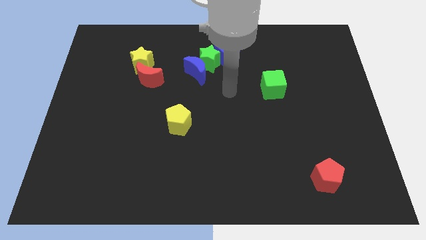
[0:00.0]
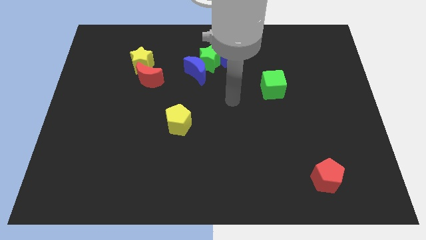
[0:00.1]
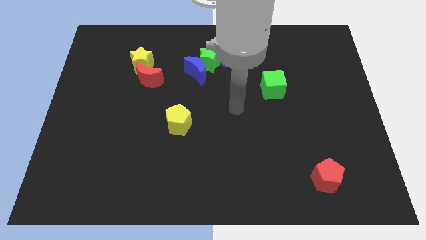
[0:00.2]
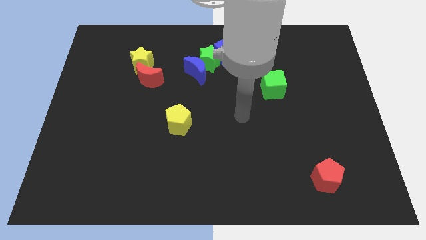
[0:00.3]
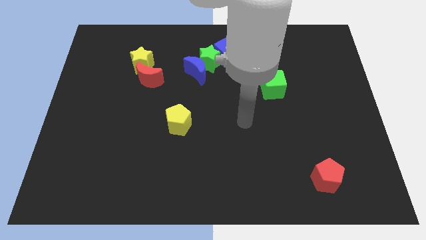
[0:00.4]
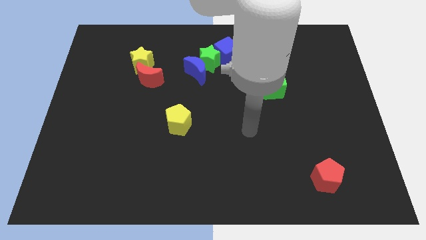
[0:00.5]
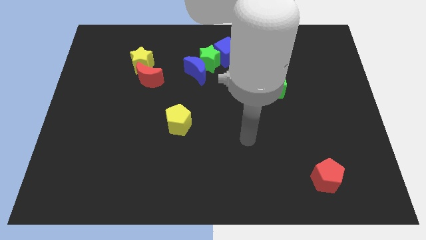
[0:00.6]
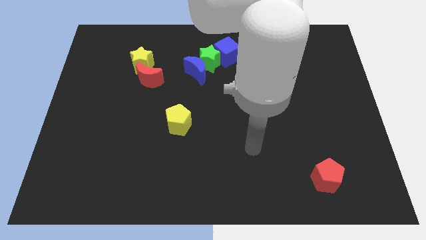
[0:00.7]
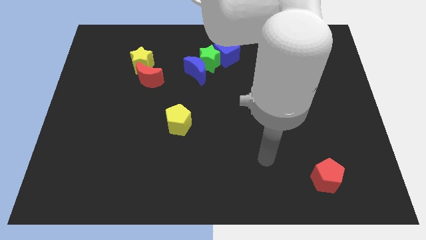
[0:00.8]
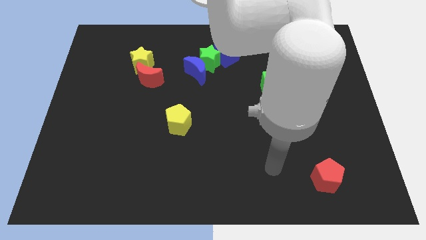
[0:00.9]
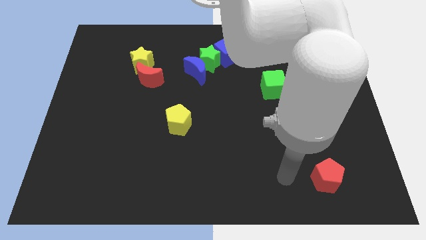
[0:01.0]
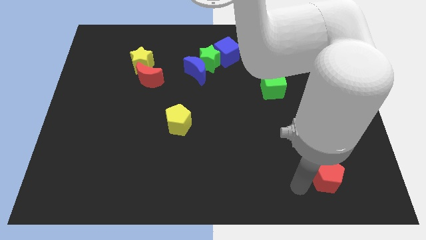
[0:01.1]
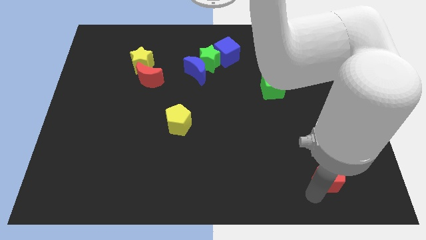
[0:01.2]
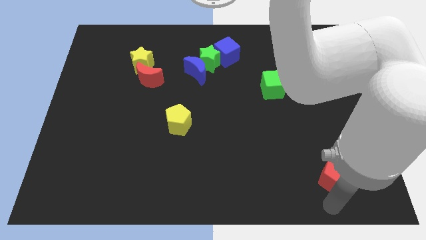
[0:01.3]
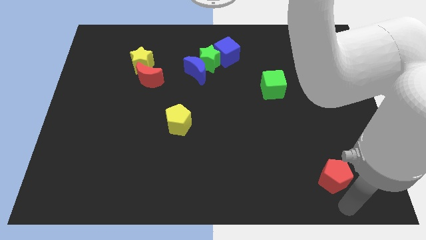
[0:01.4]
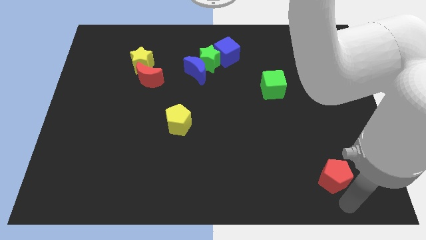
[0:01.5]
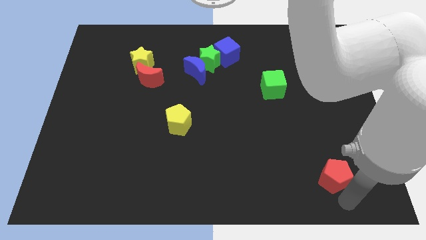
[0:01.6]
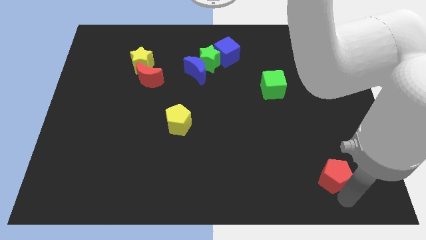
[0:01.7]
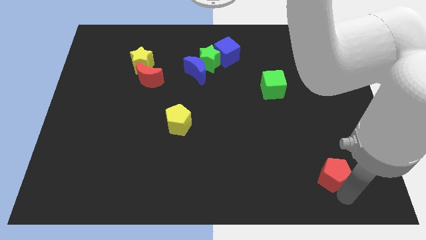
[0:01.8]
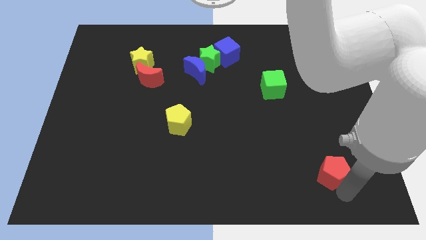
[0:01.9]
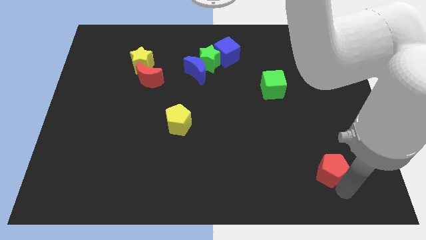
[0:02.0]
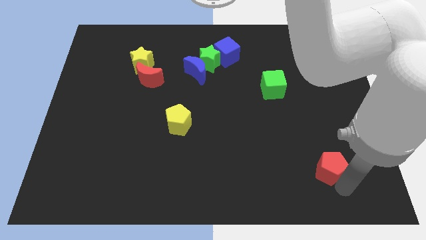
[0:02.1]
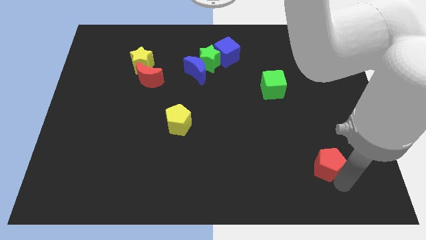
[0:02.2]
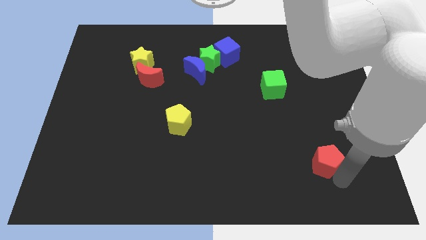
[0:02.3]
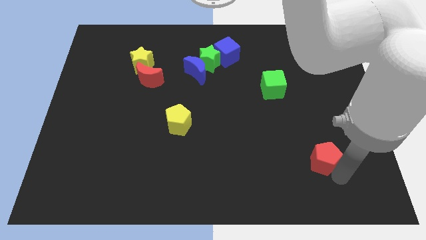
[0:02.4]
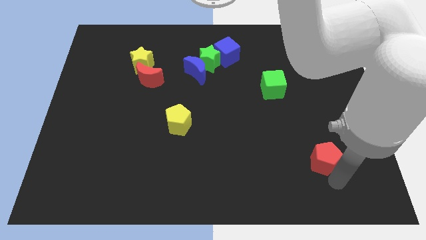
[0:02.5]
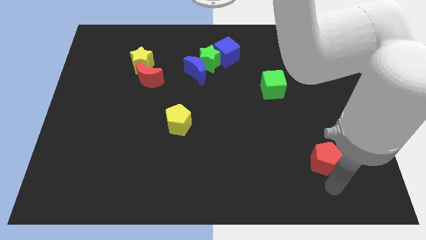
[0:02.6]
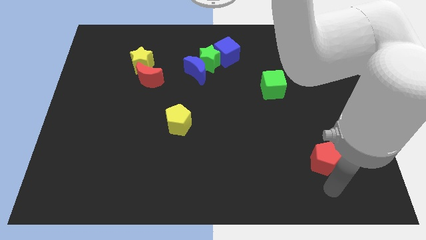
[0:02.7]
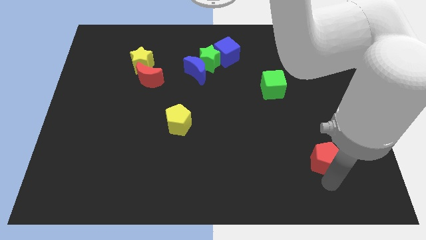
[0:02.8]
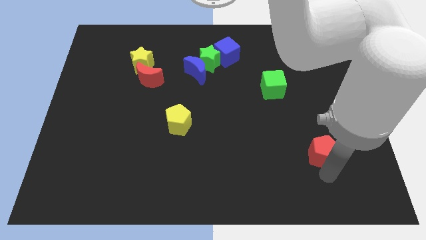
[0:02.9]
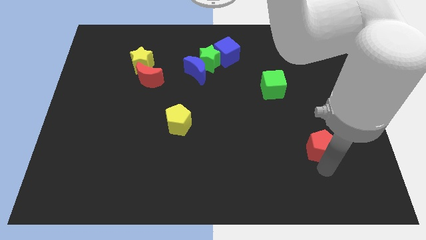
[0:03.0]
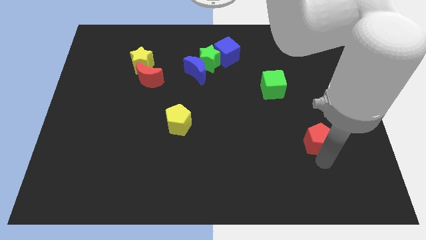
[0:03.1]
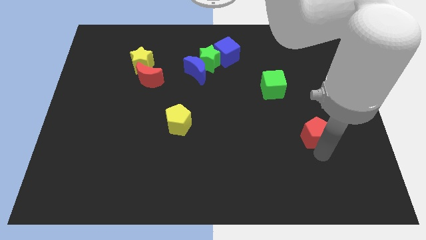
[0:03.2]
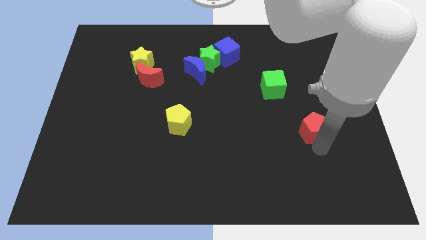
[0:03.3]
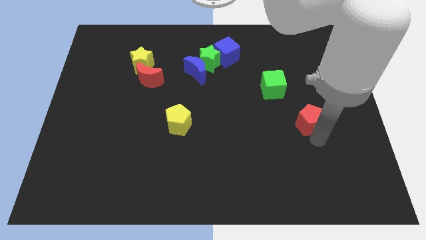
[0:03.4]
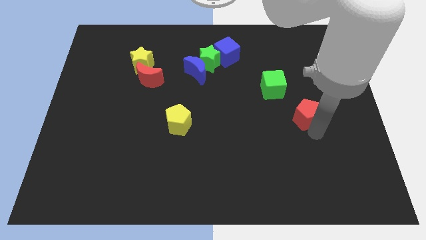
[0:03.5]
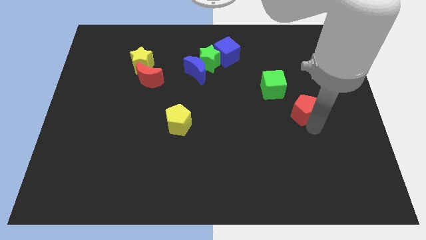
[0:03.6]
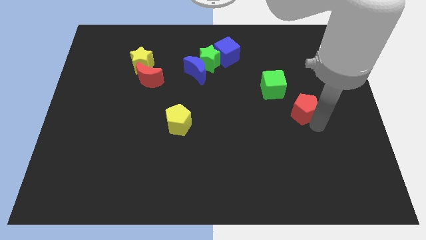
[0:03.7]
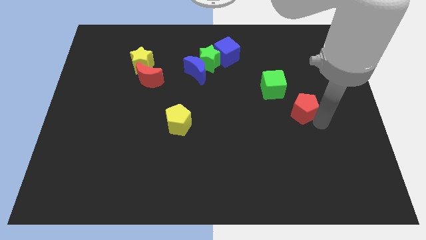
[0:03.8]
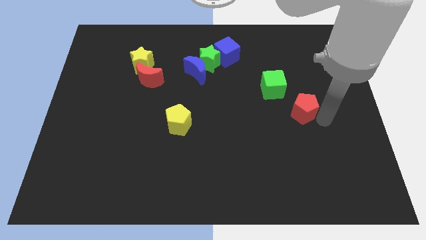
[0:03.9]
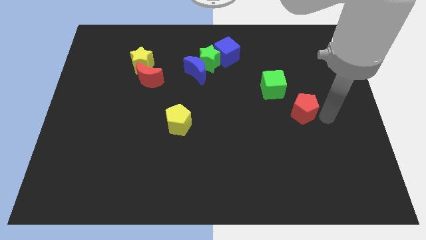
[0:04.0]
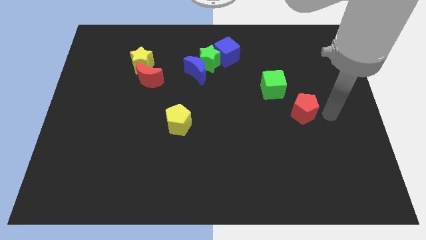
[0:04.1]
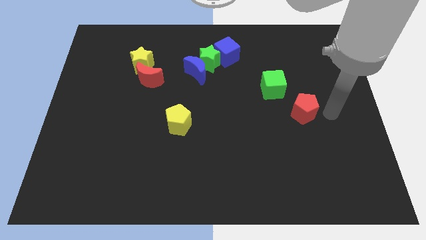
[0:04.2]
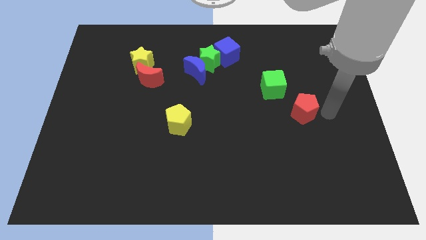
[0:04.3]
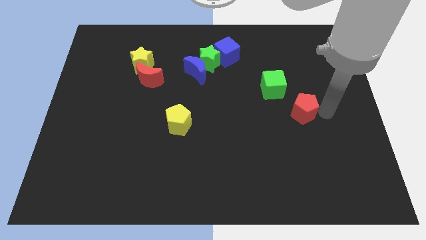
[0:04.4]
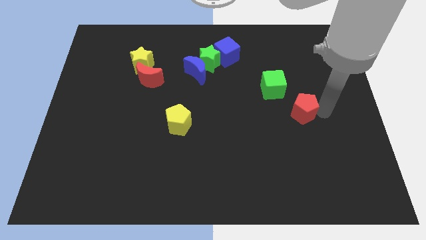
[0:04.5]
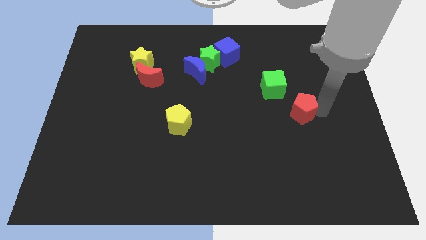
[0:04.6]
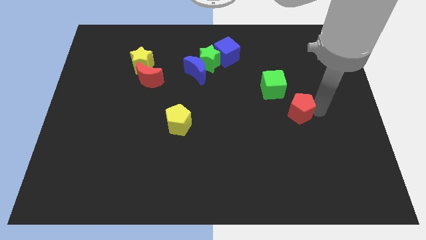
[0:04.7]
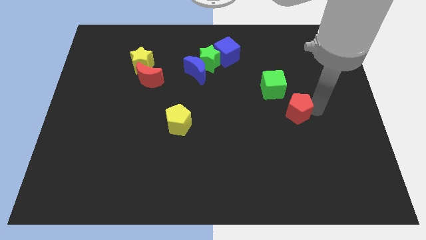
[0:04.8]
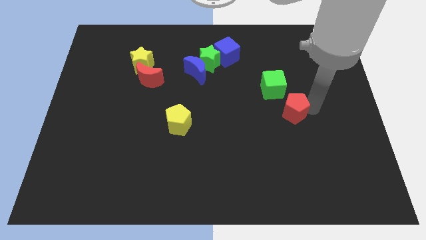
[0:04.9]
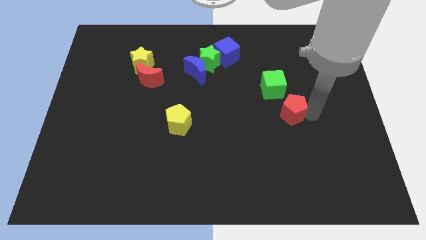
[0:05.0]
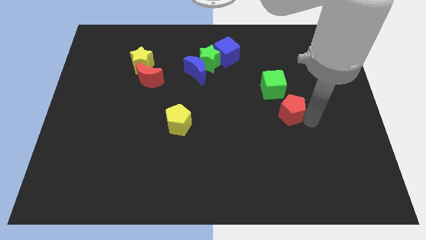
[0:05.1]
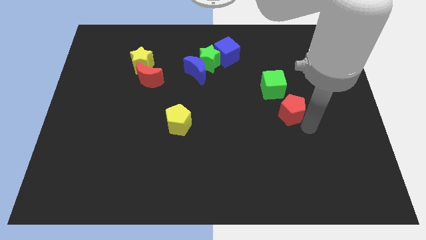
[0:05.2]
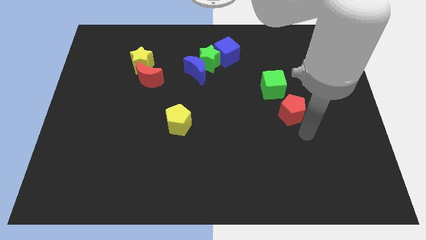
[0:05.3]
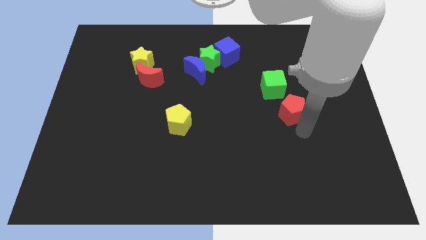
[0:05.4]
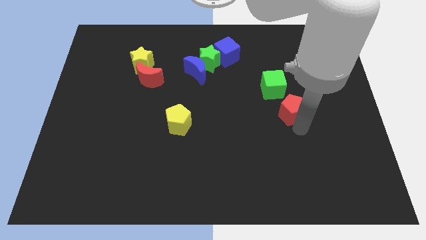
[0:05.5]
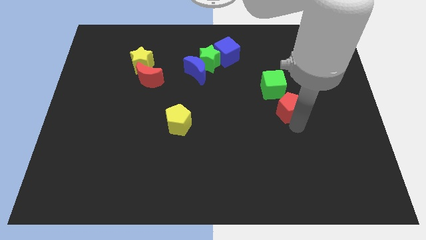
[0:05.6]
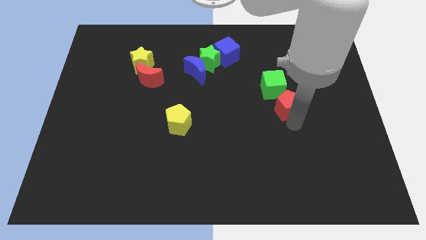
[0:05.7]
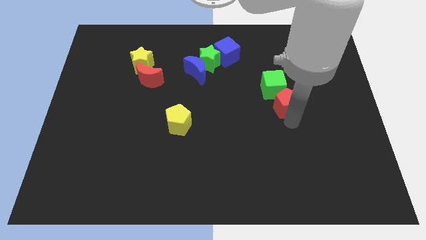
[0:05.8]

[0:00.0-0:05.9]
slide the red pentagon to the green cube

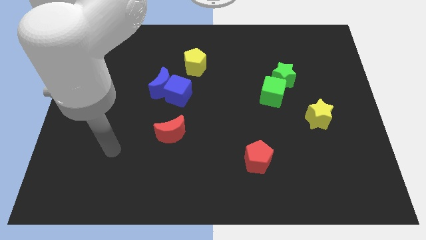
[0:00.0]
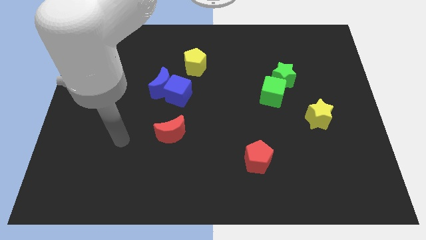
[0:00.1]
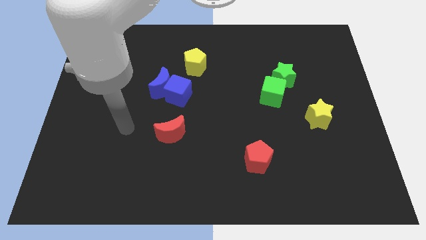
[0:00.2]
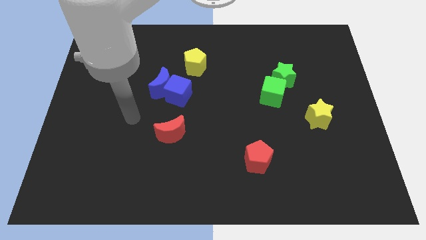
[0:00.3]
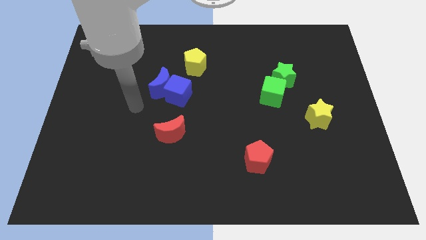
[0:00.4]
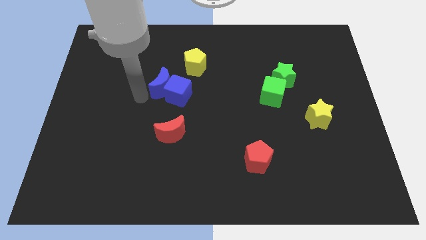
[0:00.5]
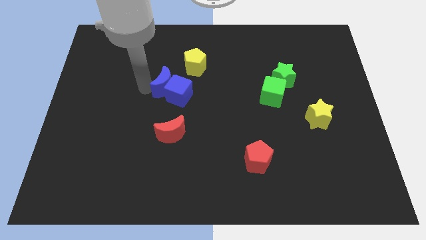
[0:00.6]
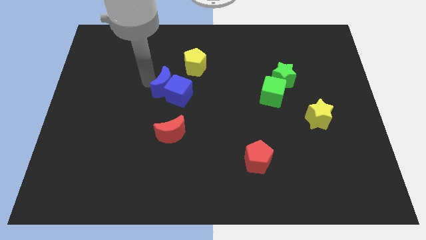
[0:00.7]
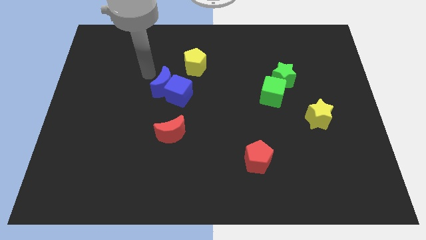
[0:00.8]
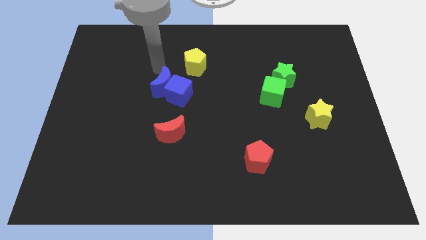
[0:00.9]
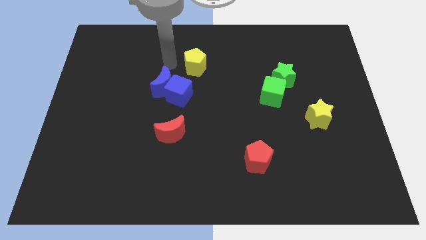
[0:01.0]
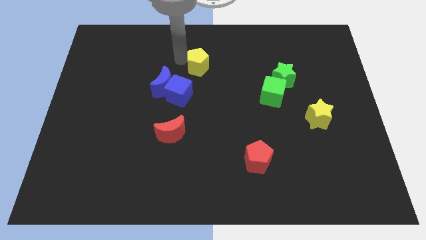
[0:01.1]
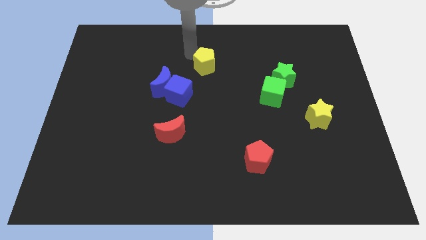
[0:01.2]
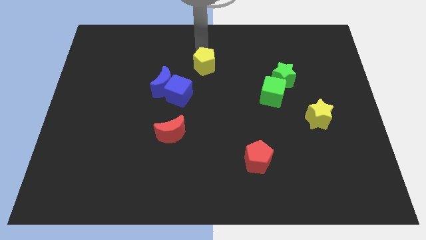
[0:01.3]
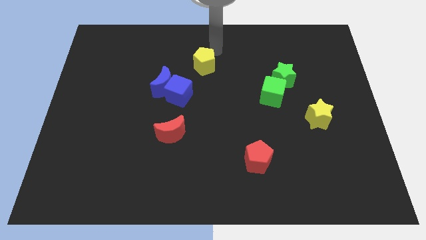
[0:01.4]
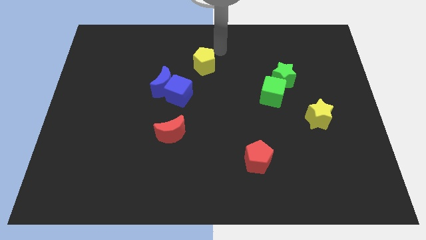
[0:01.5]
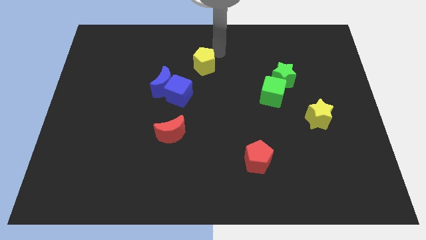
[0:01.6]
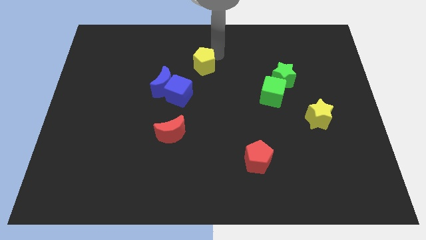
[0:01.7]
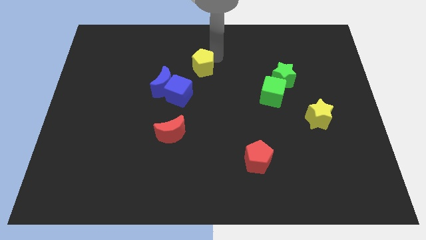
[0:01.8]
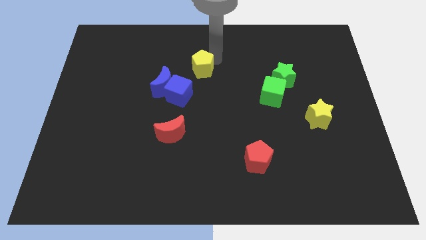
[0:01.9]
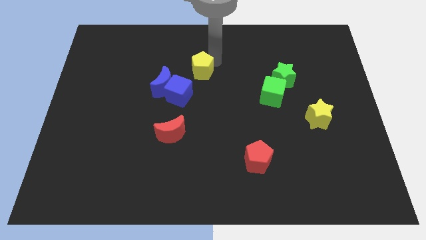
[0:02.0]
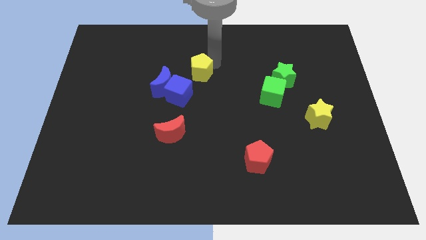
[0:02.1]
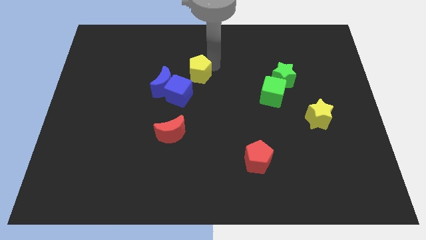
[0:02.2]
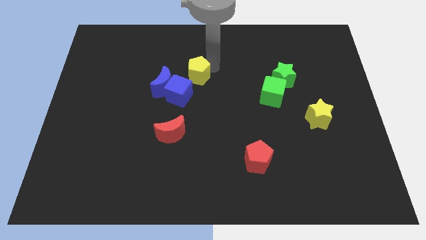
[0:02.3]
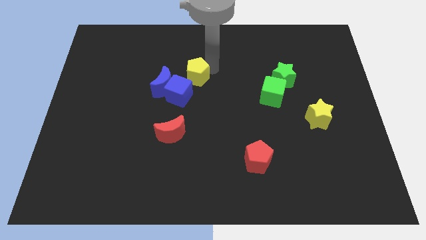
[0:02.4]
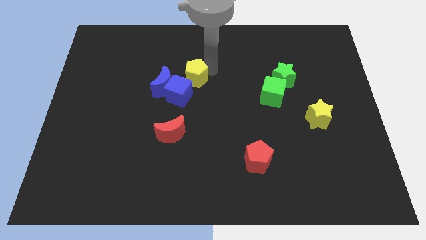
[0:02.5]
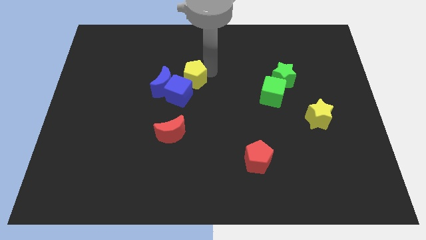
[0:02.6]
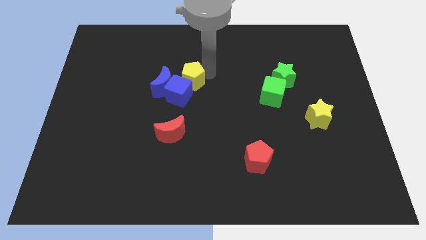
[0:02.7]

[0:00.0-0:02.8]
move the yellow pentagon close to the blue cube
